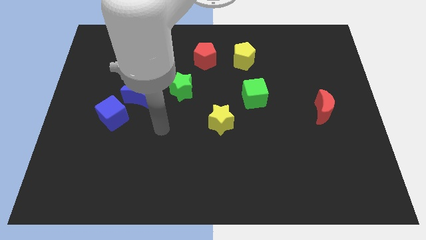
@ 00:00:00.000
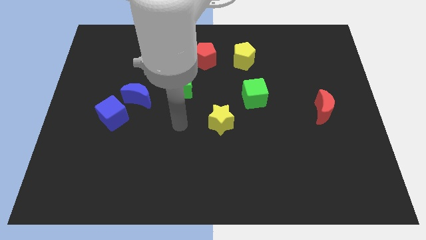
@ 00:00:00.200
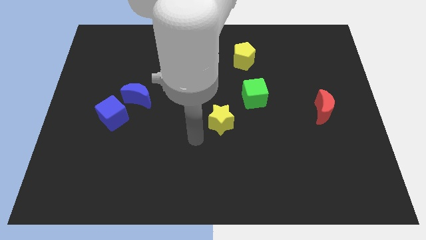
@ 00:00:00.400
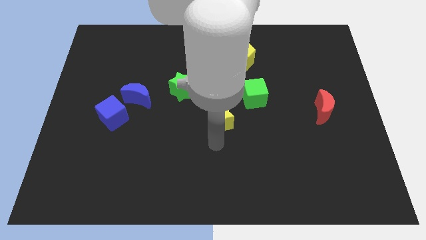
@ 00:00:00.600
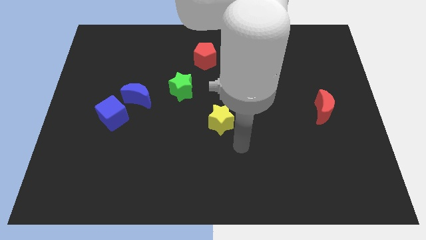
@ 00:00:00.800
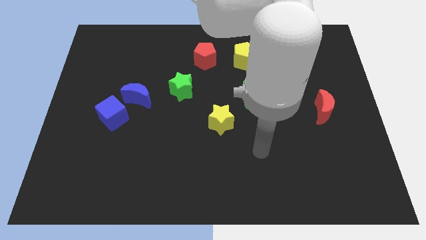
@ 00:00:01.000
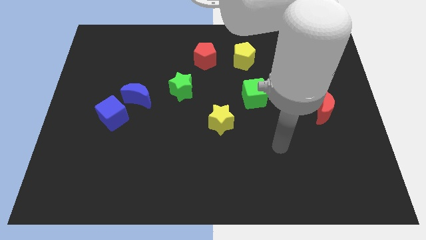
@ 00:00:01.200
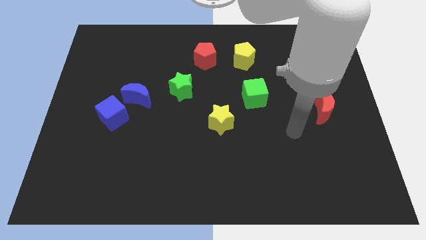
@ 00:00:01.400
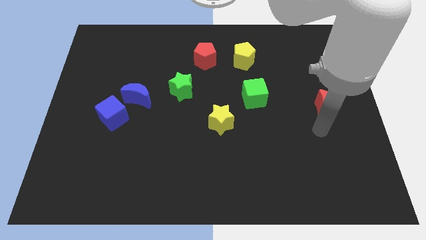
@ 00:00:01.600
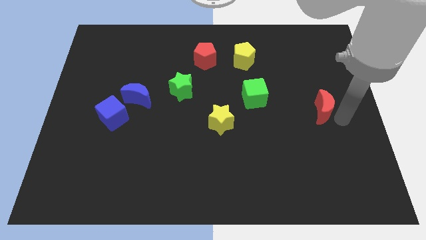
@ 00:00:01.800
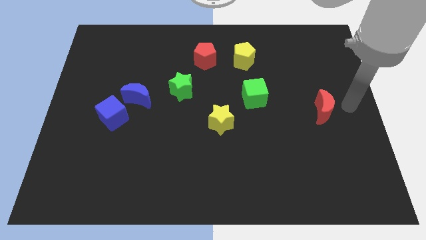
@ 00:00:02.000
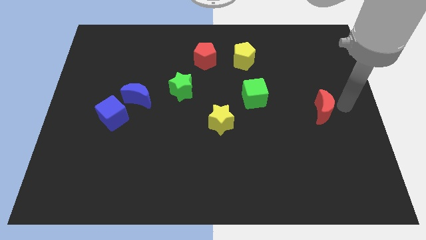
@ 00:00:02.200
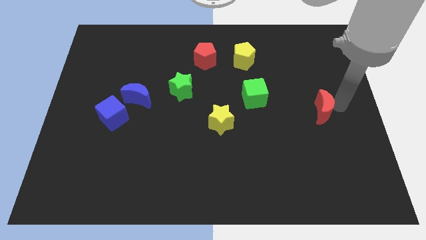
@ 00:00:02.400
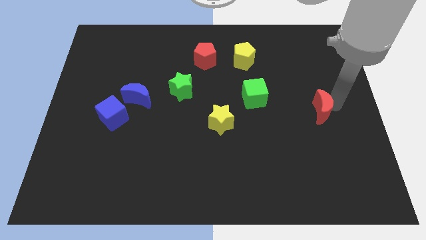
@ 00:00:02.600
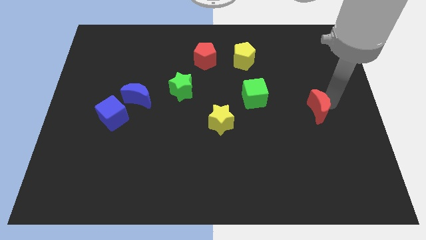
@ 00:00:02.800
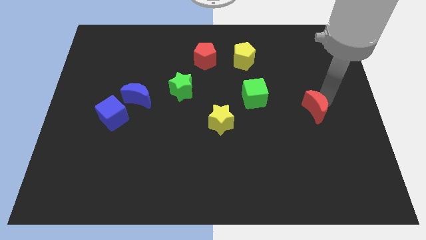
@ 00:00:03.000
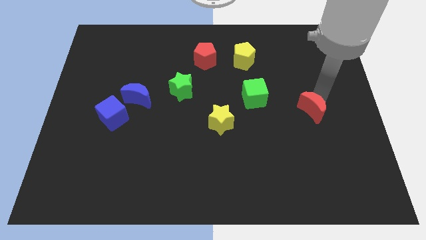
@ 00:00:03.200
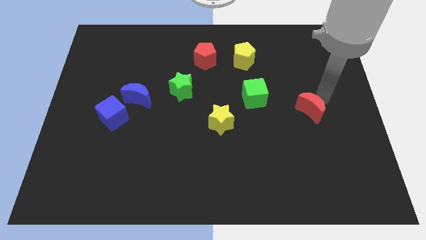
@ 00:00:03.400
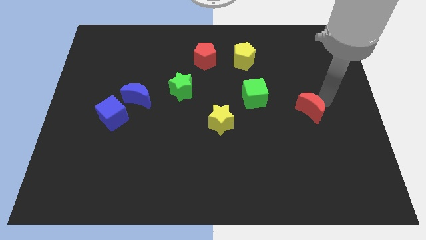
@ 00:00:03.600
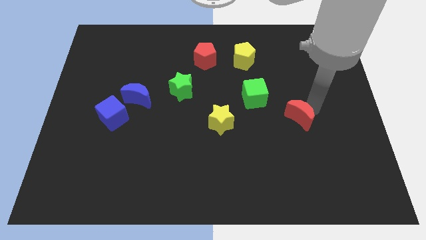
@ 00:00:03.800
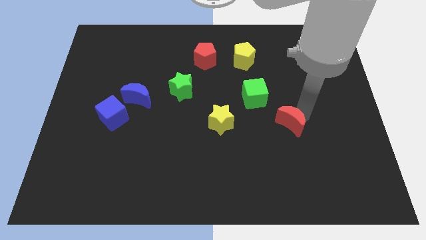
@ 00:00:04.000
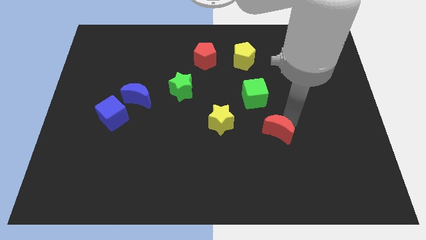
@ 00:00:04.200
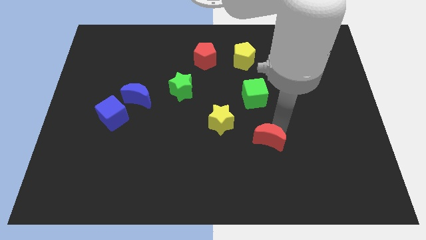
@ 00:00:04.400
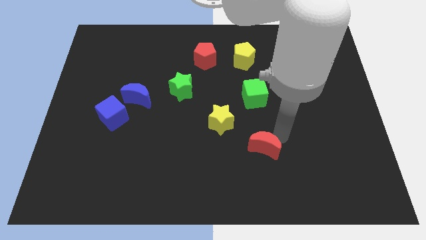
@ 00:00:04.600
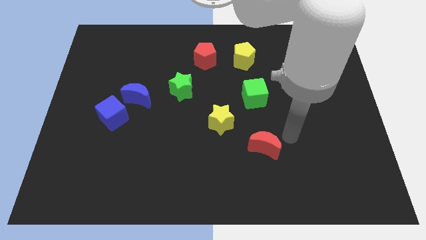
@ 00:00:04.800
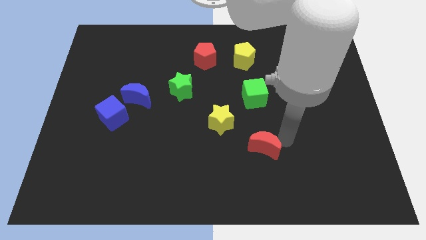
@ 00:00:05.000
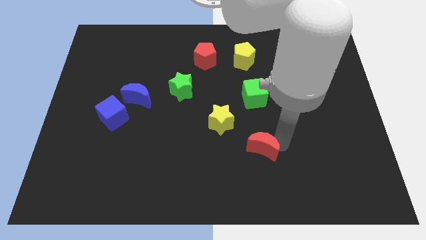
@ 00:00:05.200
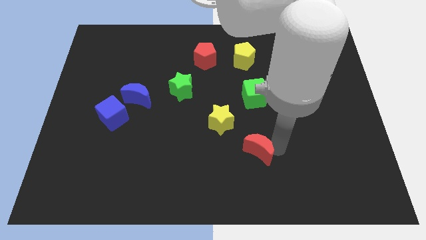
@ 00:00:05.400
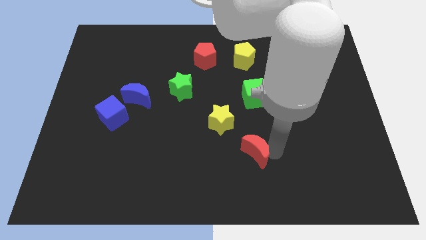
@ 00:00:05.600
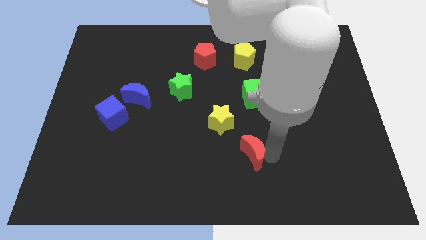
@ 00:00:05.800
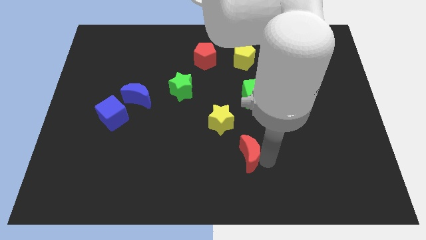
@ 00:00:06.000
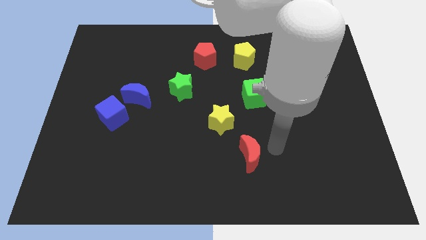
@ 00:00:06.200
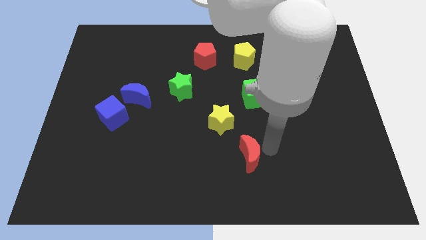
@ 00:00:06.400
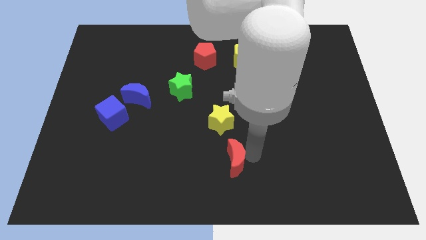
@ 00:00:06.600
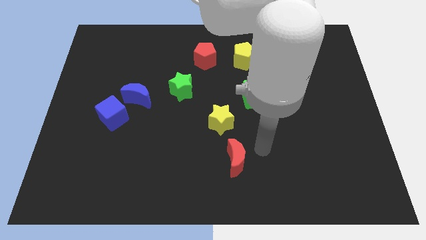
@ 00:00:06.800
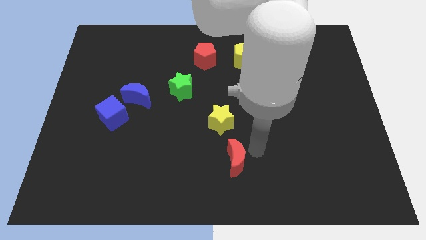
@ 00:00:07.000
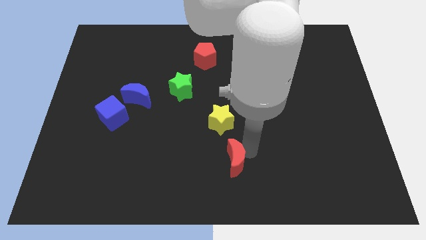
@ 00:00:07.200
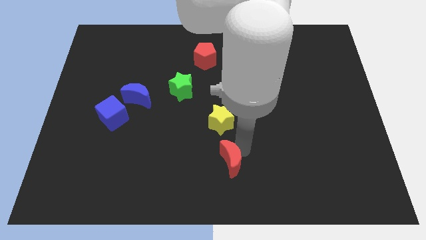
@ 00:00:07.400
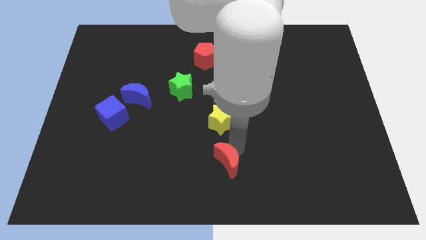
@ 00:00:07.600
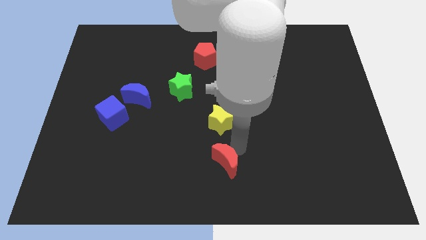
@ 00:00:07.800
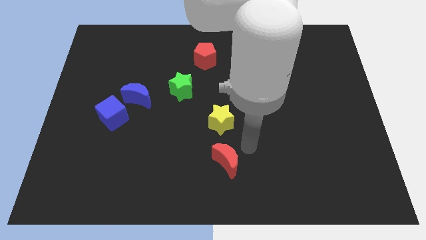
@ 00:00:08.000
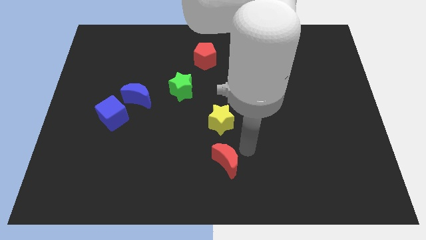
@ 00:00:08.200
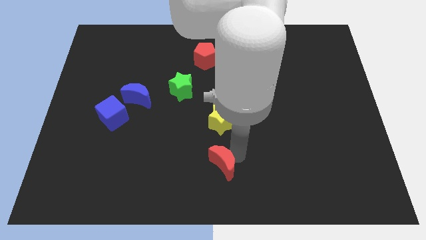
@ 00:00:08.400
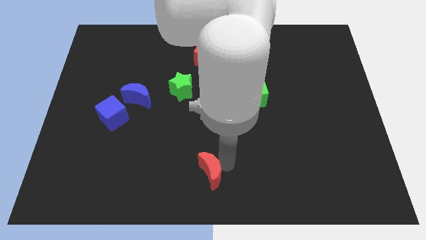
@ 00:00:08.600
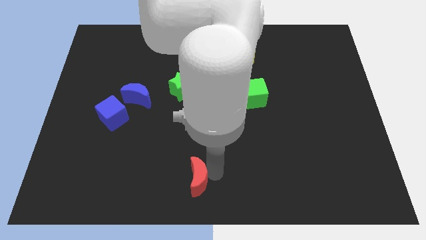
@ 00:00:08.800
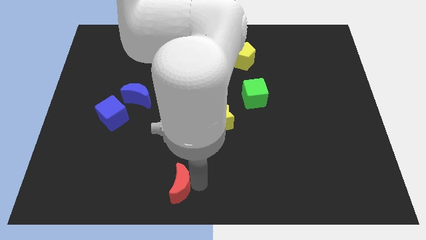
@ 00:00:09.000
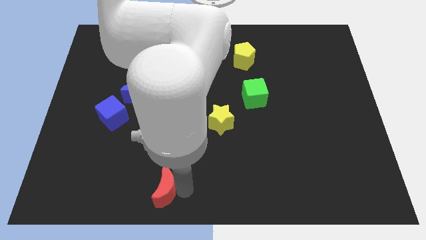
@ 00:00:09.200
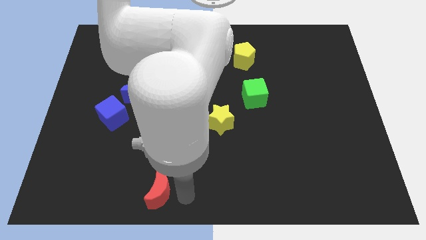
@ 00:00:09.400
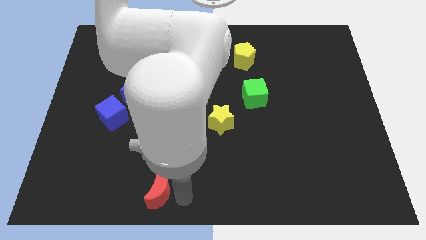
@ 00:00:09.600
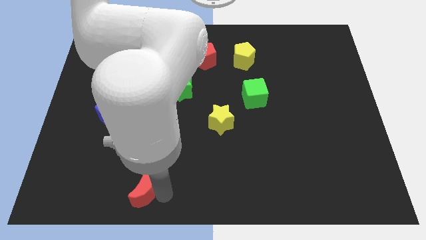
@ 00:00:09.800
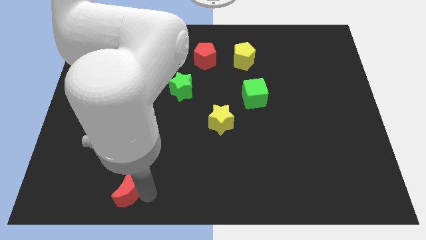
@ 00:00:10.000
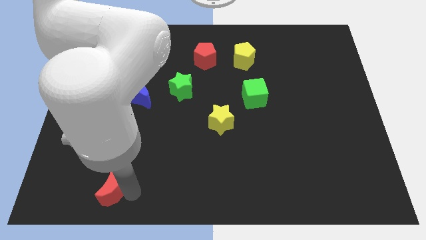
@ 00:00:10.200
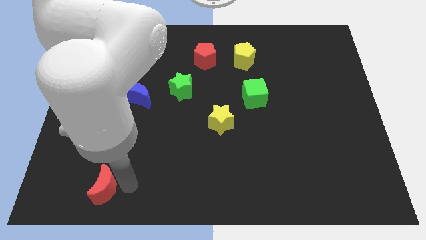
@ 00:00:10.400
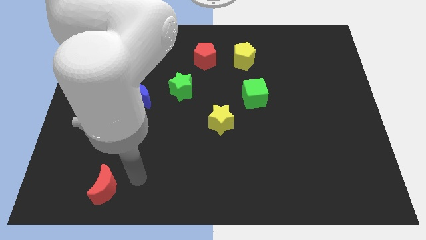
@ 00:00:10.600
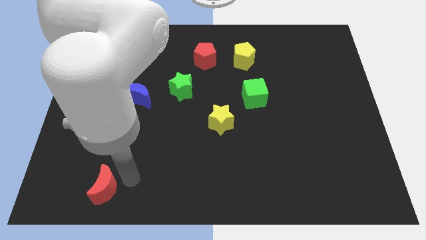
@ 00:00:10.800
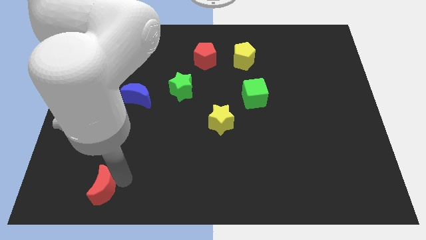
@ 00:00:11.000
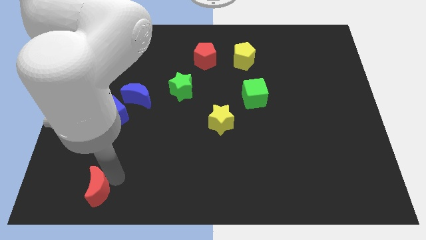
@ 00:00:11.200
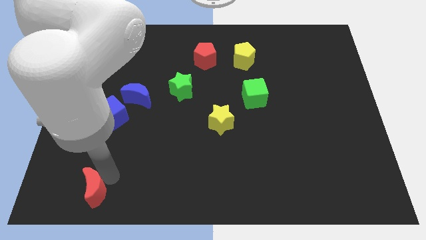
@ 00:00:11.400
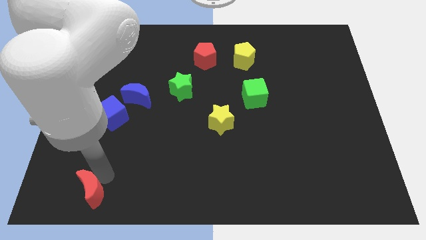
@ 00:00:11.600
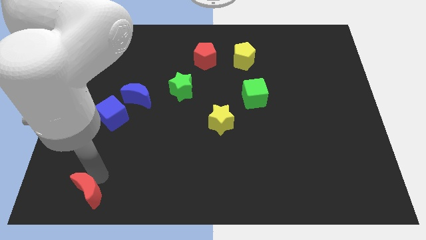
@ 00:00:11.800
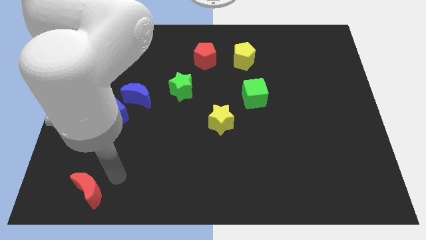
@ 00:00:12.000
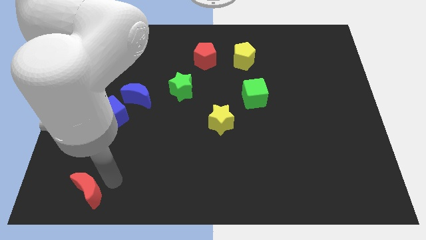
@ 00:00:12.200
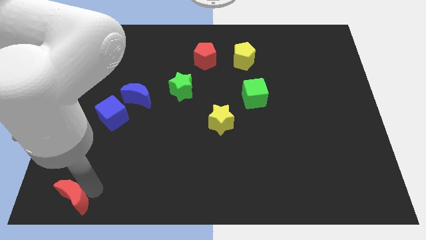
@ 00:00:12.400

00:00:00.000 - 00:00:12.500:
move the red moon to the lower left corner

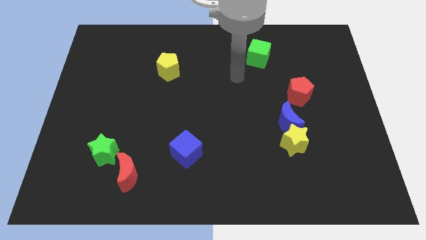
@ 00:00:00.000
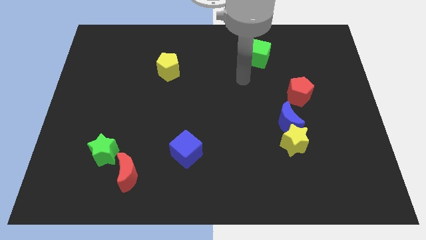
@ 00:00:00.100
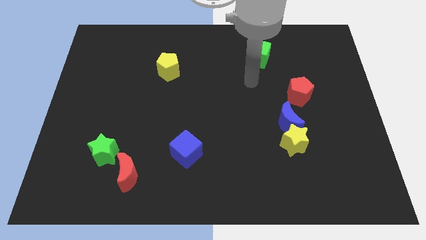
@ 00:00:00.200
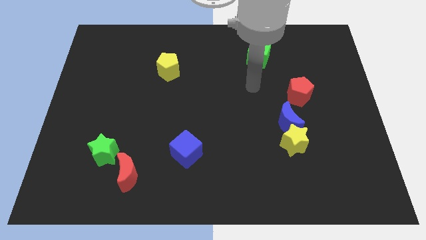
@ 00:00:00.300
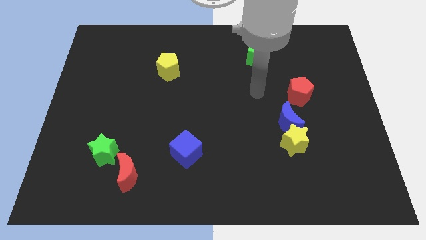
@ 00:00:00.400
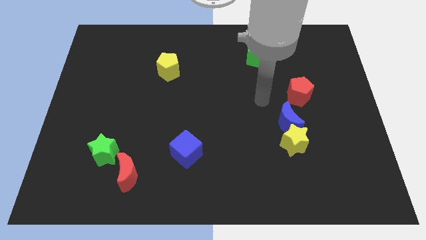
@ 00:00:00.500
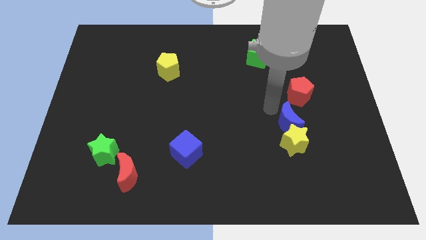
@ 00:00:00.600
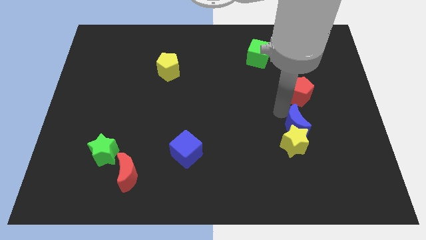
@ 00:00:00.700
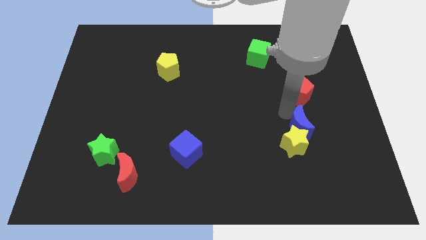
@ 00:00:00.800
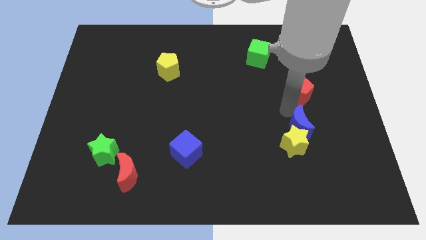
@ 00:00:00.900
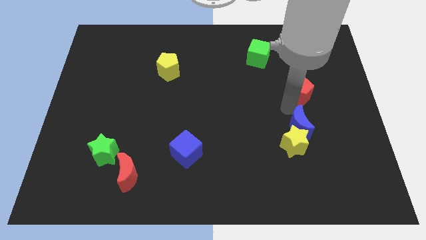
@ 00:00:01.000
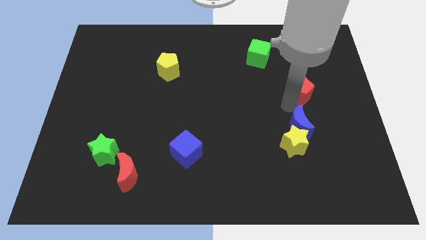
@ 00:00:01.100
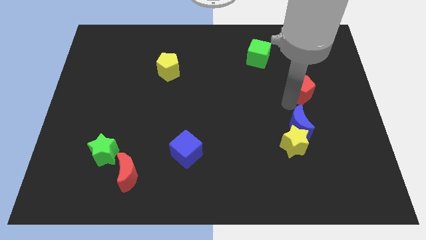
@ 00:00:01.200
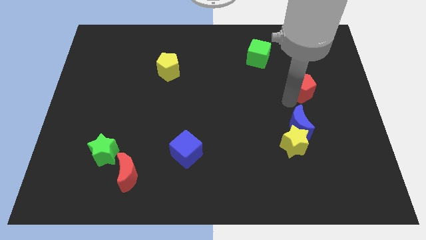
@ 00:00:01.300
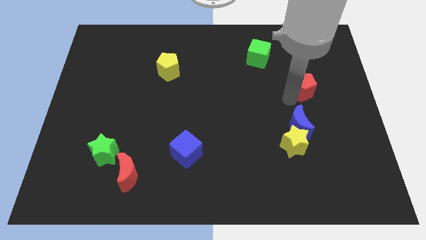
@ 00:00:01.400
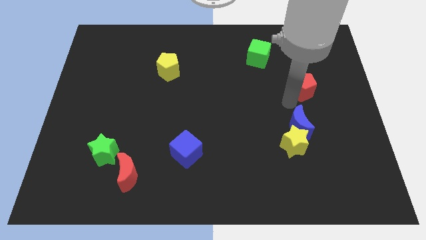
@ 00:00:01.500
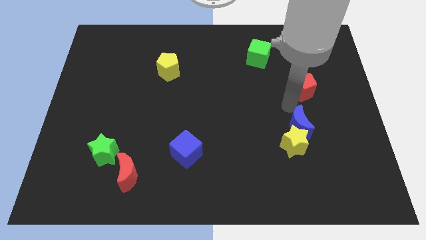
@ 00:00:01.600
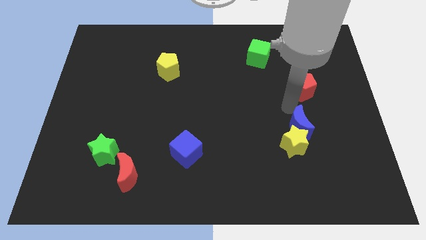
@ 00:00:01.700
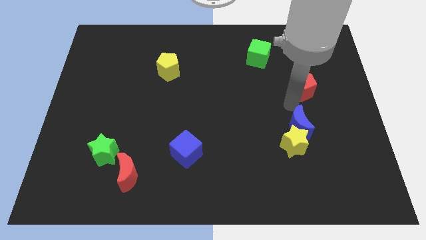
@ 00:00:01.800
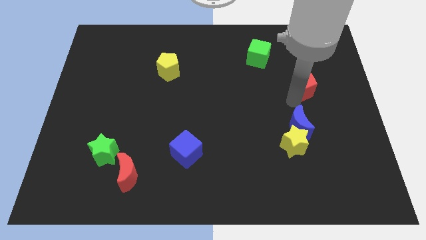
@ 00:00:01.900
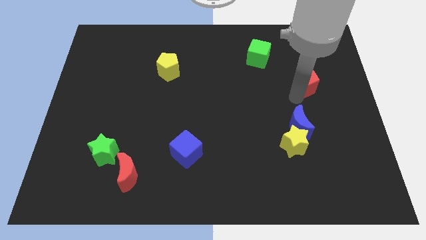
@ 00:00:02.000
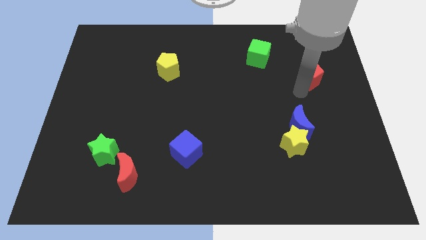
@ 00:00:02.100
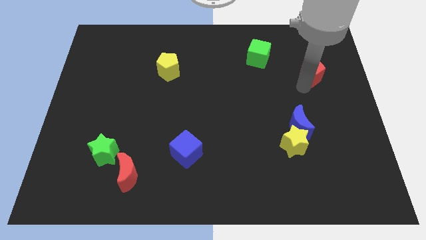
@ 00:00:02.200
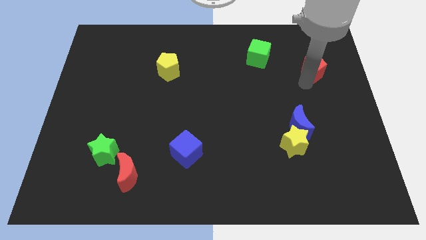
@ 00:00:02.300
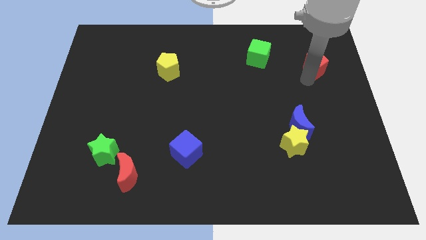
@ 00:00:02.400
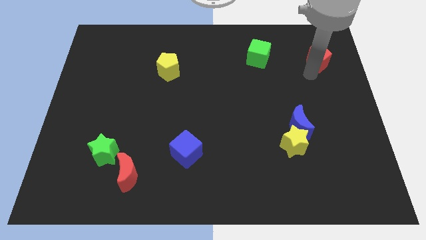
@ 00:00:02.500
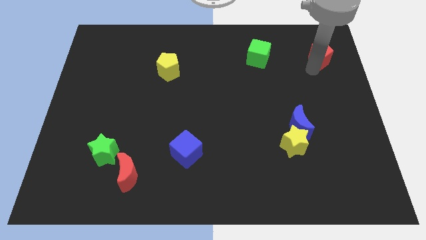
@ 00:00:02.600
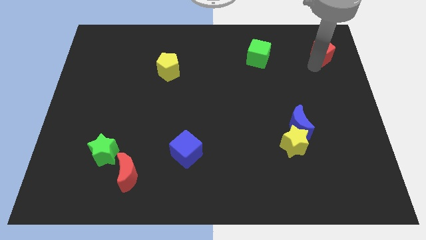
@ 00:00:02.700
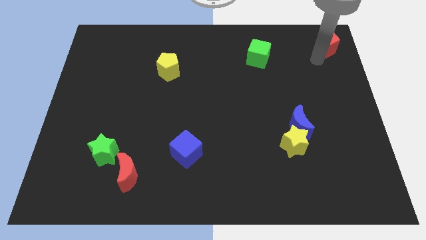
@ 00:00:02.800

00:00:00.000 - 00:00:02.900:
put the red pentagon to the top right corner
